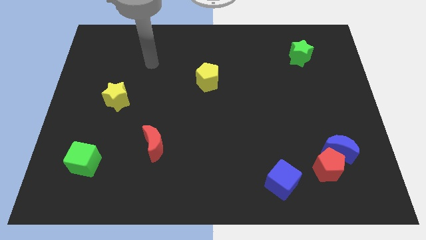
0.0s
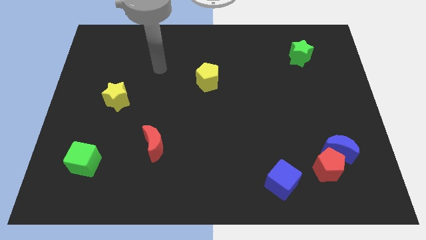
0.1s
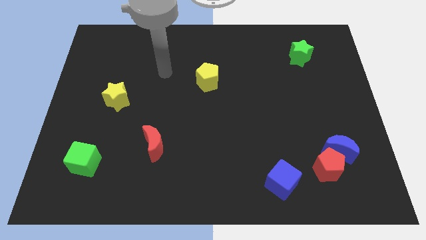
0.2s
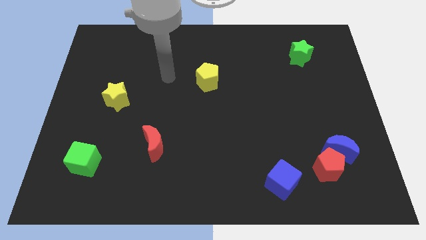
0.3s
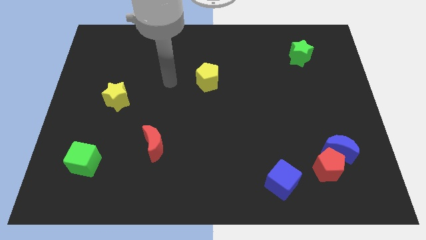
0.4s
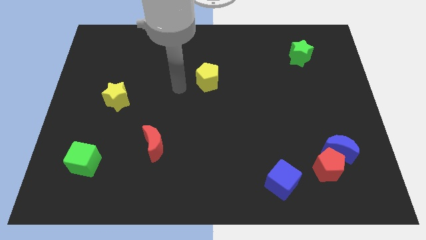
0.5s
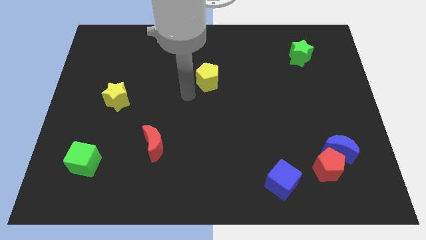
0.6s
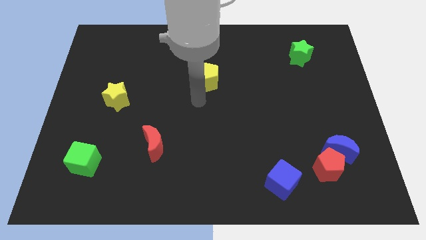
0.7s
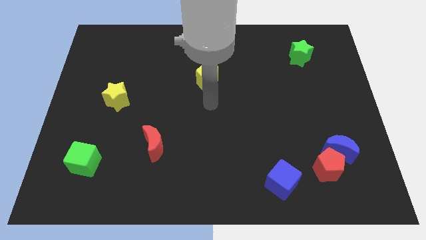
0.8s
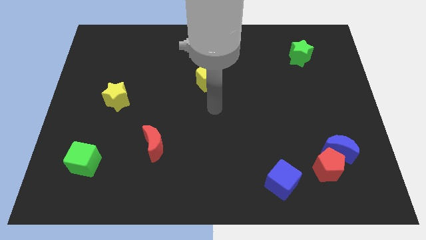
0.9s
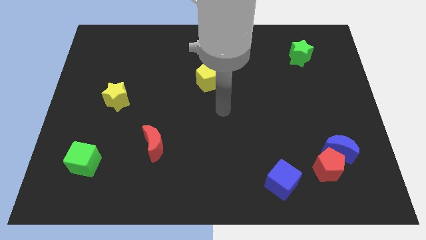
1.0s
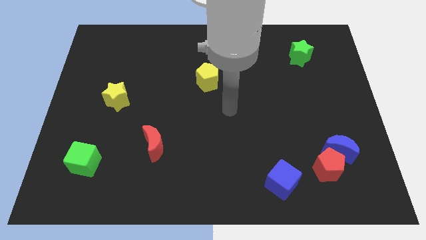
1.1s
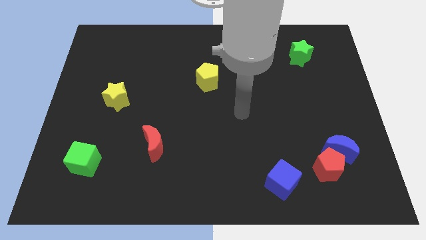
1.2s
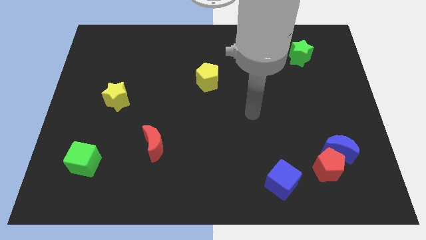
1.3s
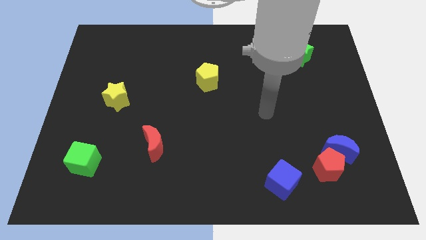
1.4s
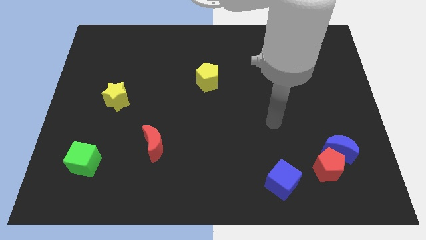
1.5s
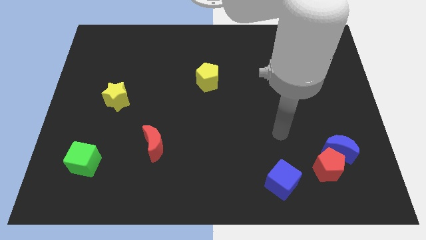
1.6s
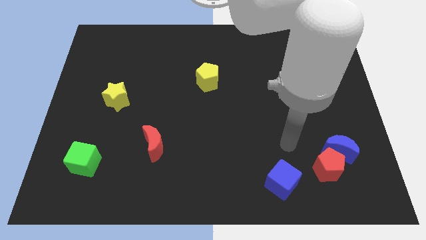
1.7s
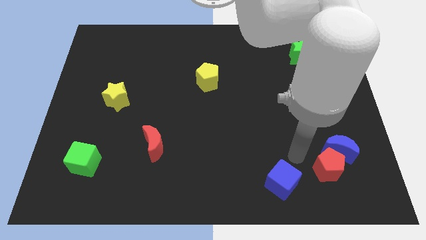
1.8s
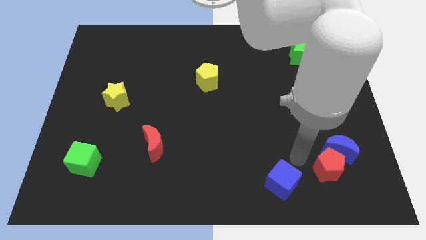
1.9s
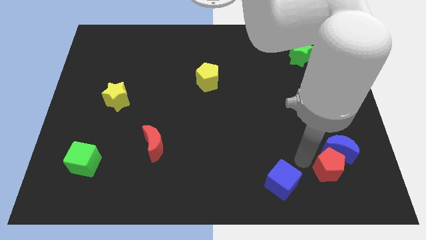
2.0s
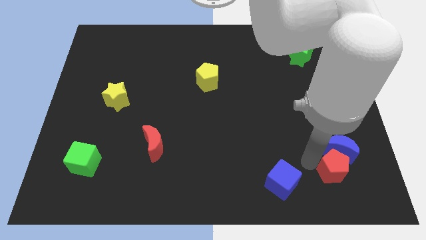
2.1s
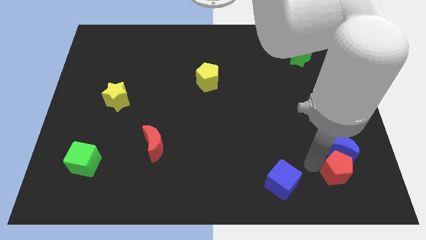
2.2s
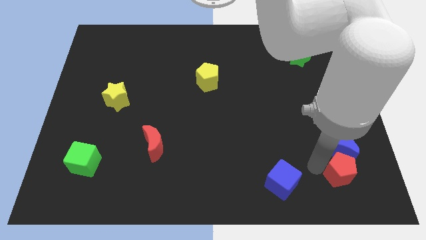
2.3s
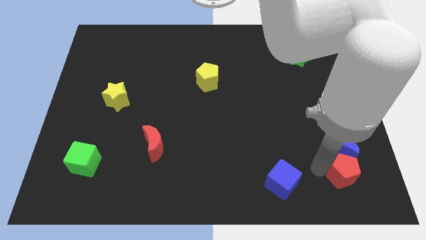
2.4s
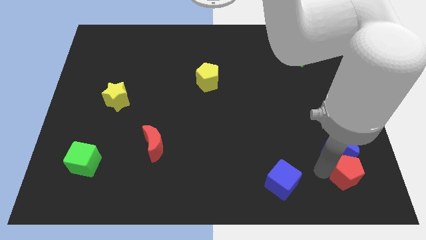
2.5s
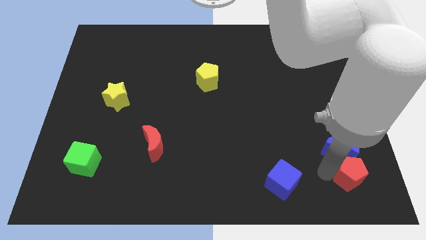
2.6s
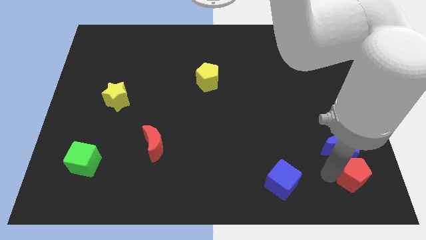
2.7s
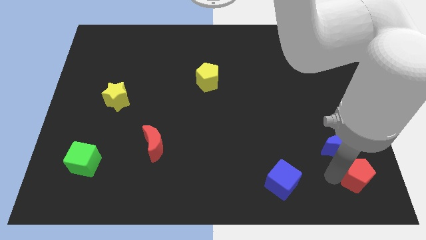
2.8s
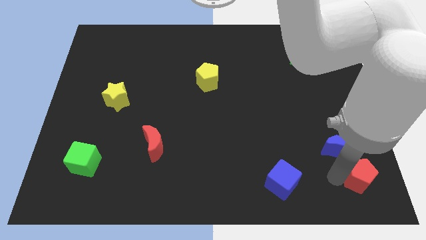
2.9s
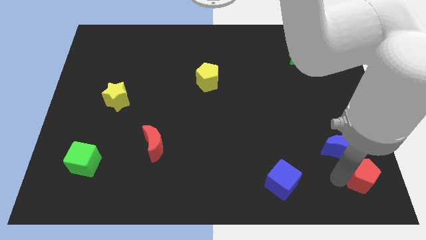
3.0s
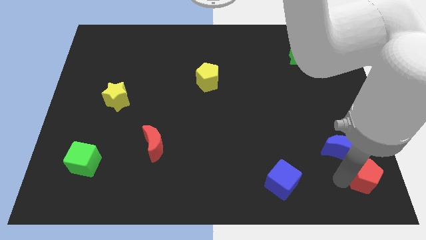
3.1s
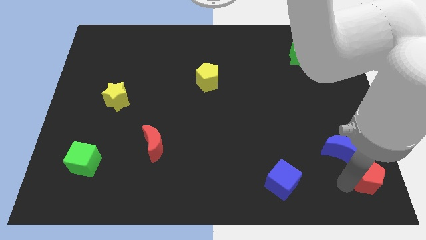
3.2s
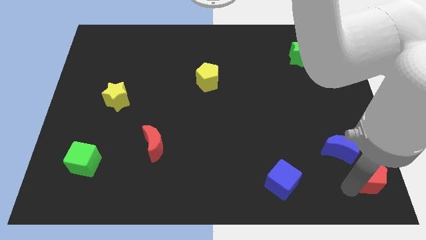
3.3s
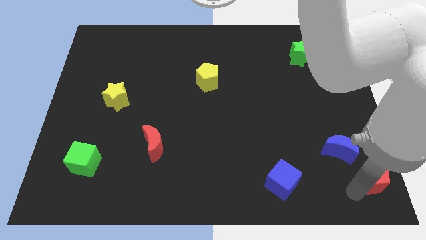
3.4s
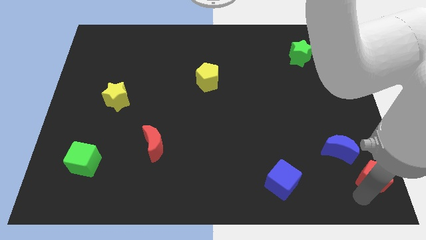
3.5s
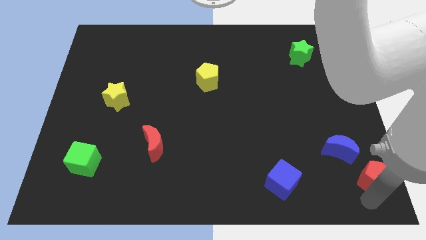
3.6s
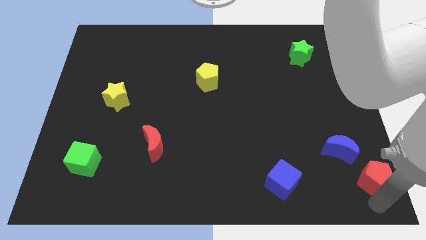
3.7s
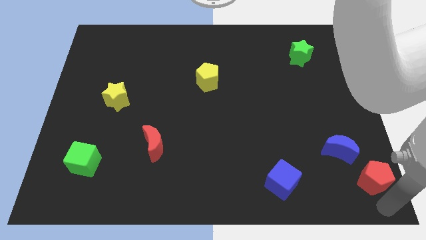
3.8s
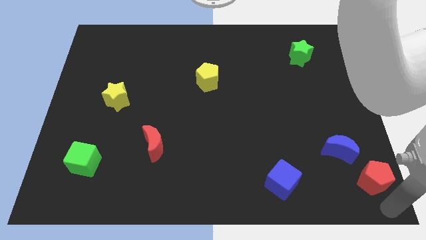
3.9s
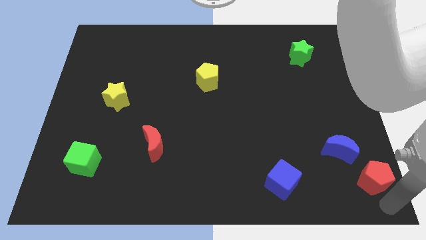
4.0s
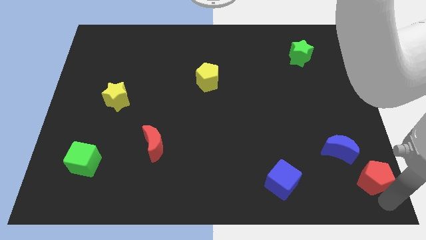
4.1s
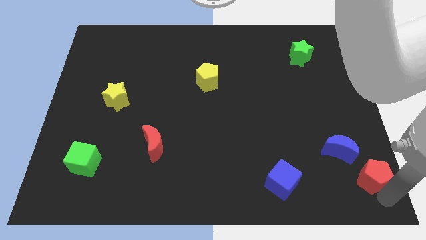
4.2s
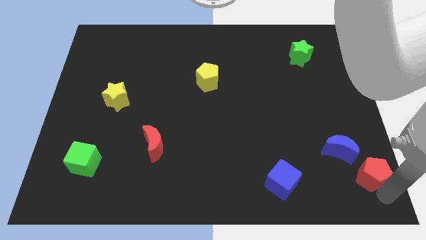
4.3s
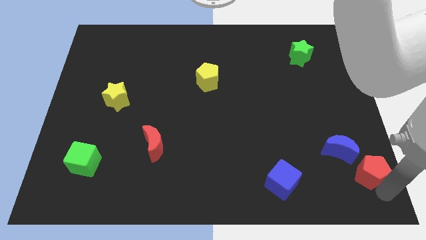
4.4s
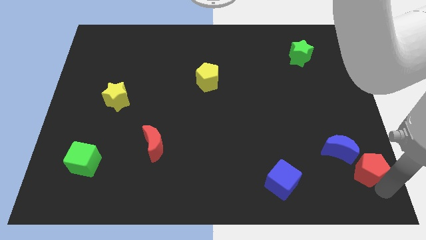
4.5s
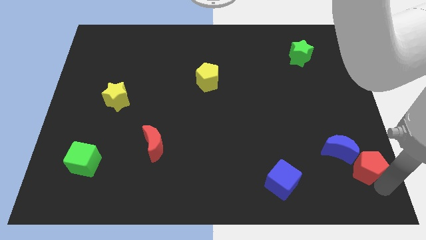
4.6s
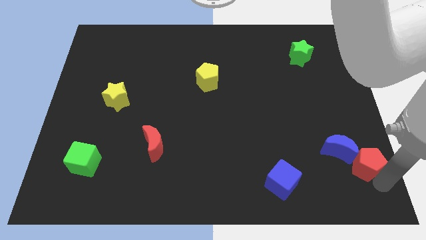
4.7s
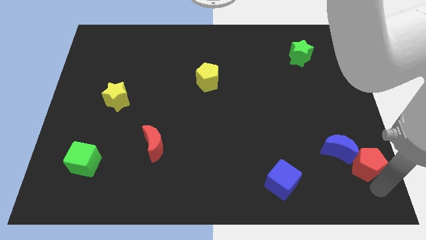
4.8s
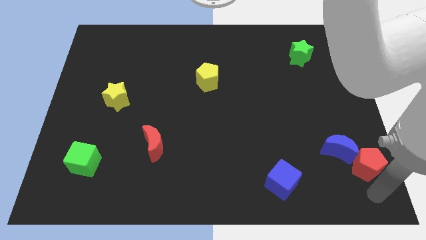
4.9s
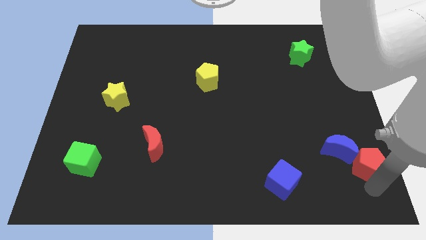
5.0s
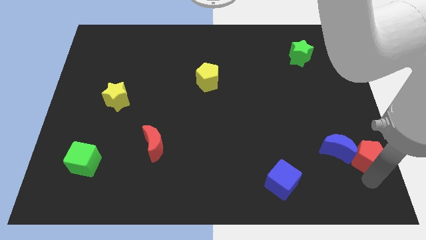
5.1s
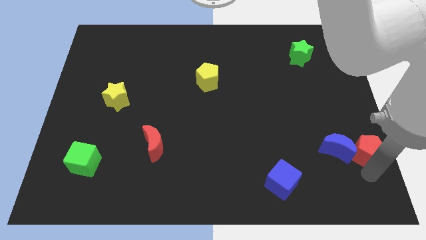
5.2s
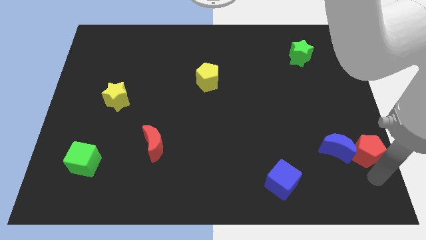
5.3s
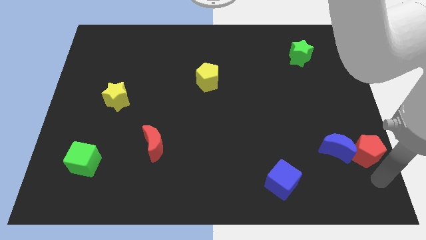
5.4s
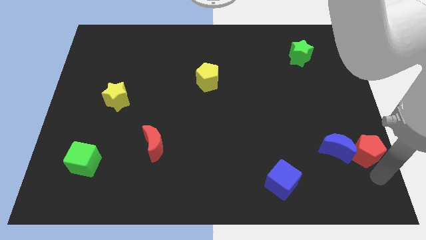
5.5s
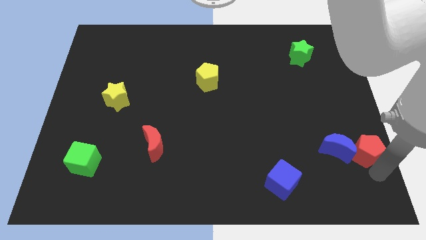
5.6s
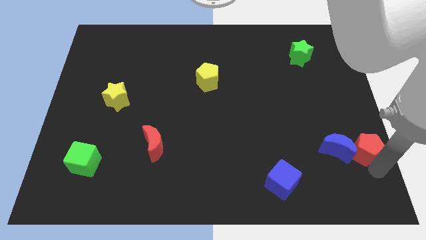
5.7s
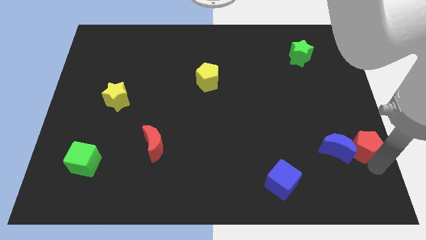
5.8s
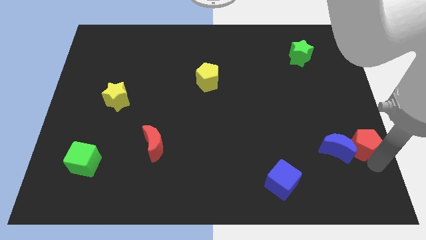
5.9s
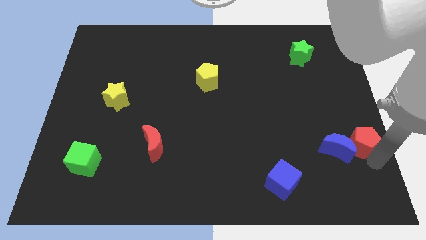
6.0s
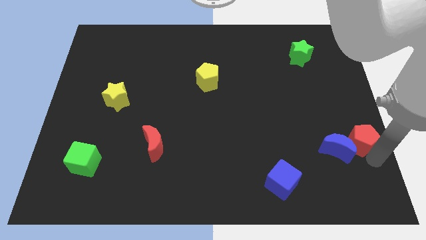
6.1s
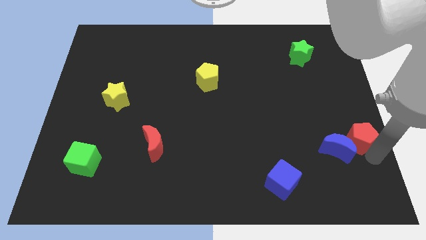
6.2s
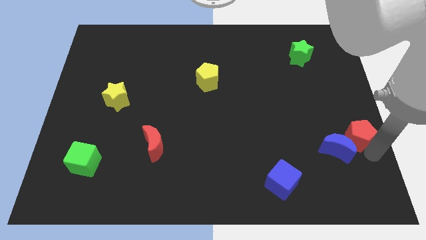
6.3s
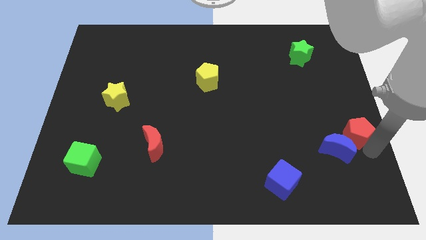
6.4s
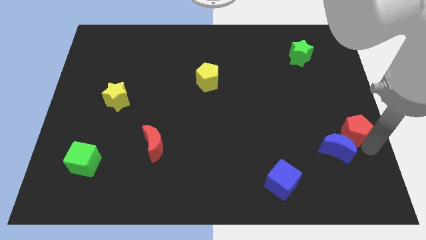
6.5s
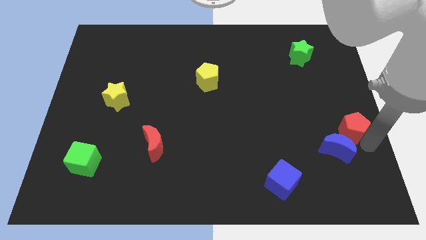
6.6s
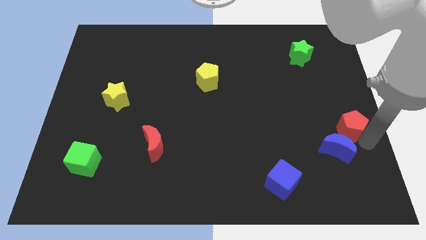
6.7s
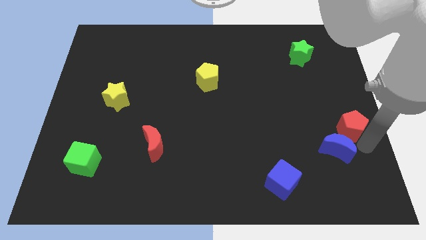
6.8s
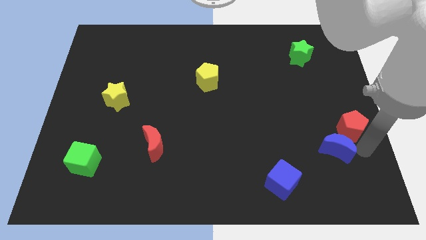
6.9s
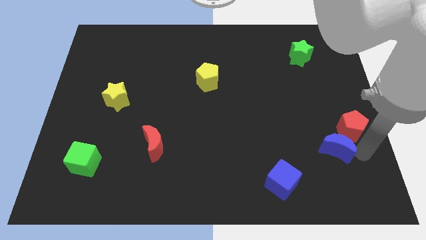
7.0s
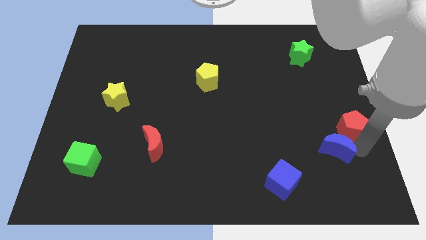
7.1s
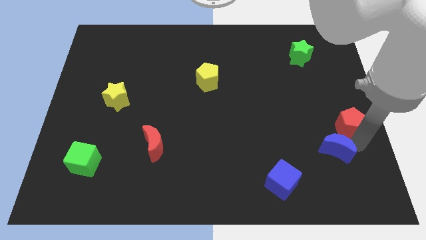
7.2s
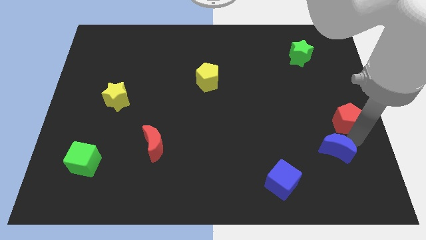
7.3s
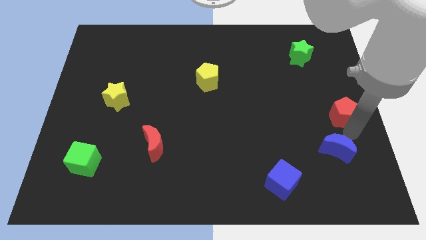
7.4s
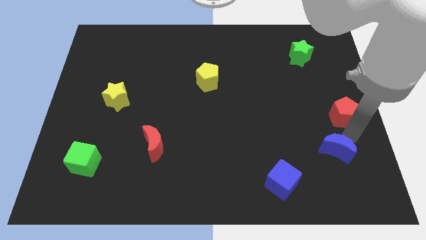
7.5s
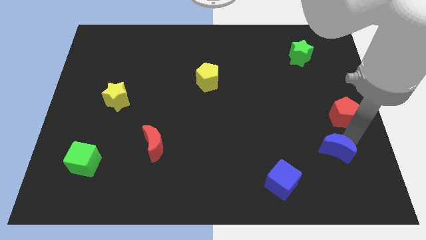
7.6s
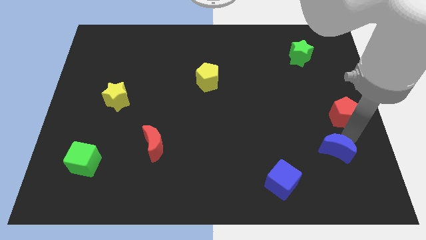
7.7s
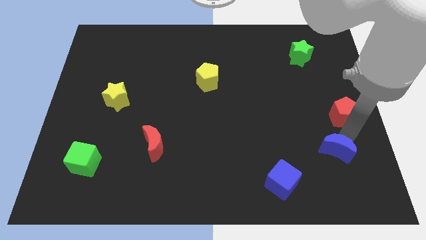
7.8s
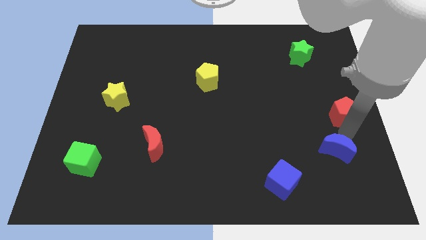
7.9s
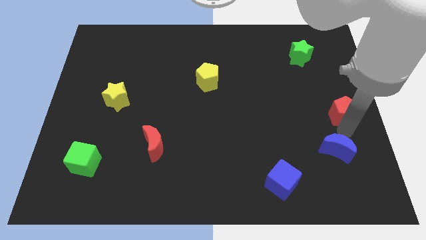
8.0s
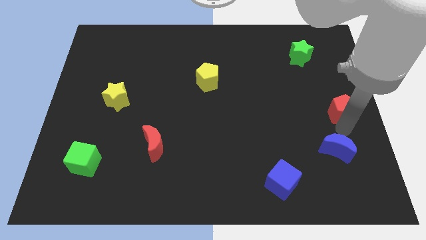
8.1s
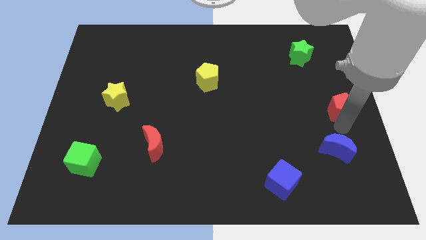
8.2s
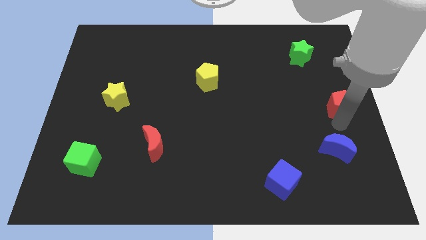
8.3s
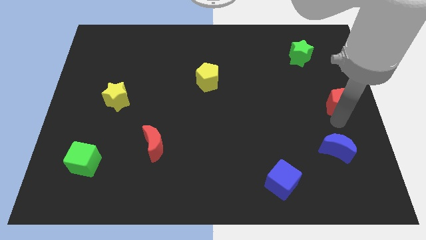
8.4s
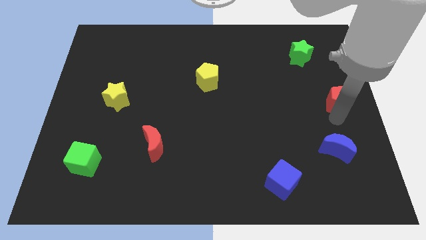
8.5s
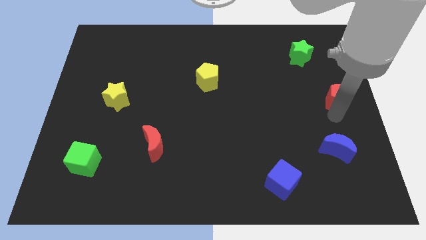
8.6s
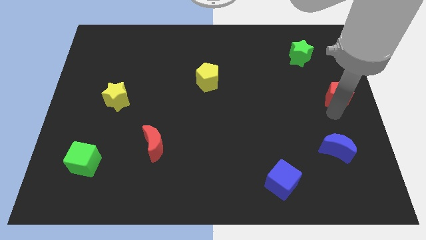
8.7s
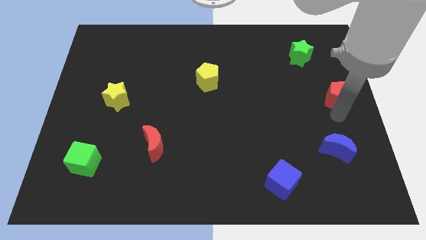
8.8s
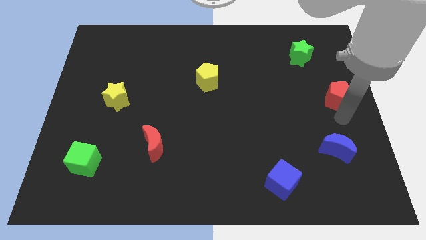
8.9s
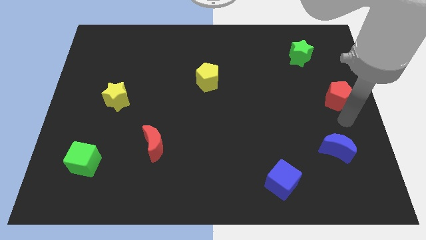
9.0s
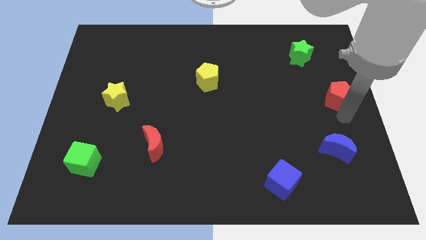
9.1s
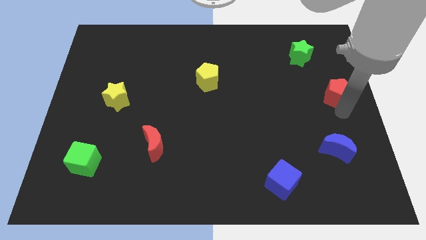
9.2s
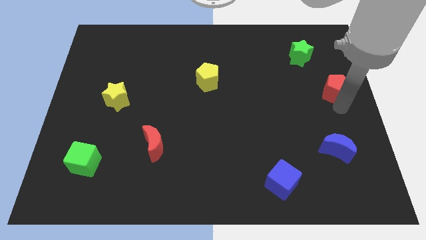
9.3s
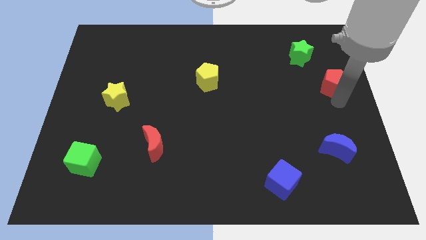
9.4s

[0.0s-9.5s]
move the red pentagon diagonally down and to the right of the green star
